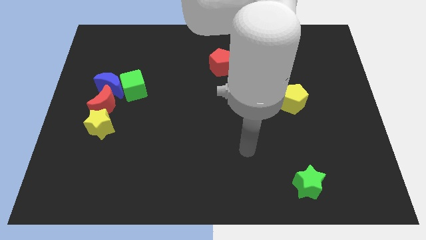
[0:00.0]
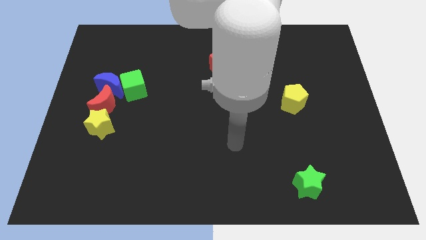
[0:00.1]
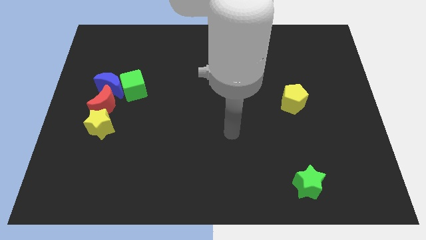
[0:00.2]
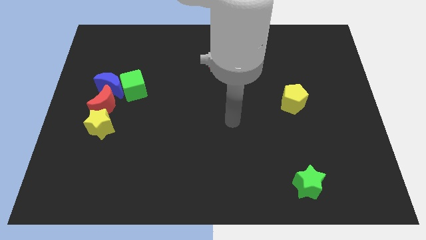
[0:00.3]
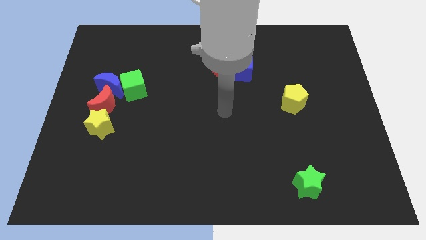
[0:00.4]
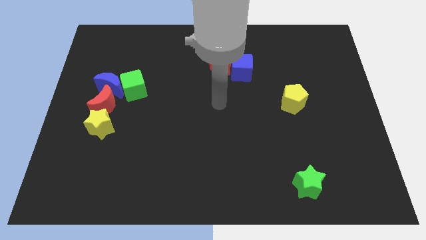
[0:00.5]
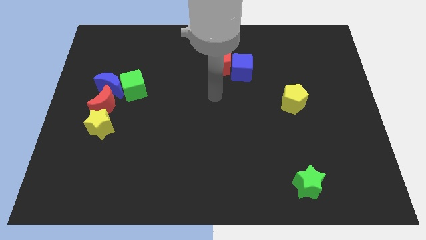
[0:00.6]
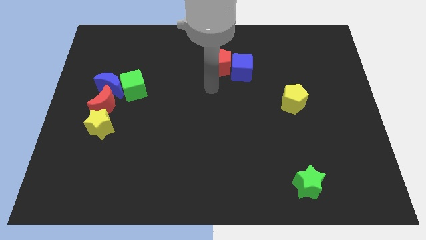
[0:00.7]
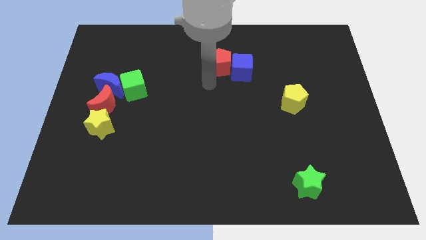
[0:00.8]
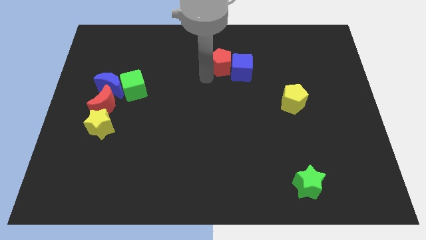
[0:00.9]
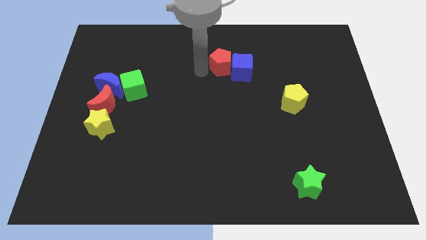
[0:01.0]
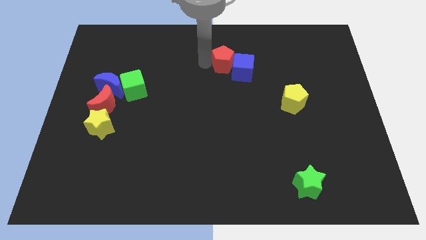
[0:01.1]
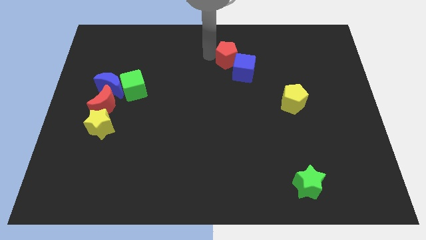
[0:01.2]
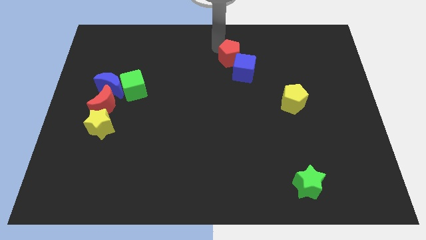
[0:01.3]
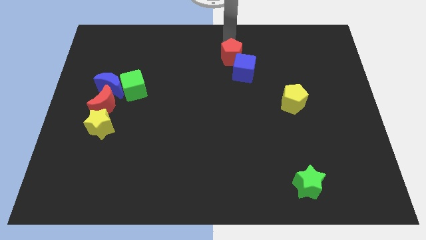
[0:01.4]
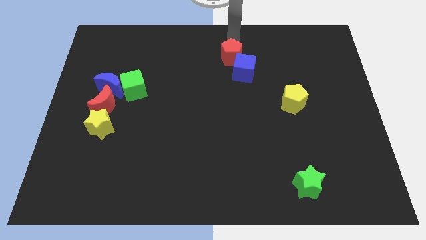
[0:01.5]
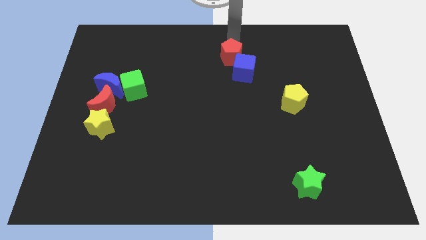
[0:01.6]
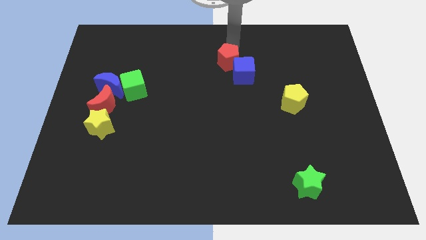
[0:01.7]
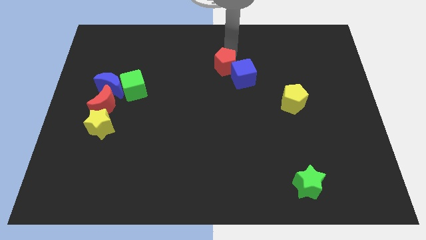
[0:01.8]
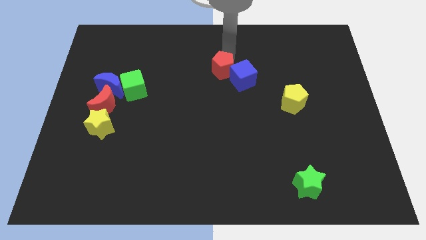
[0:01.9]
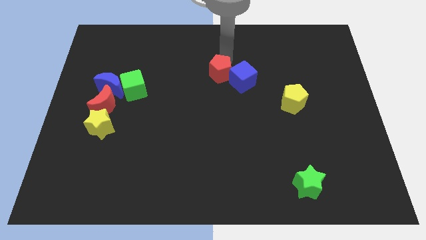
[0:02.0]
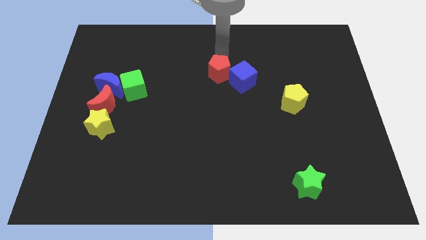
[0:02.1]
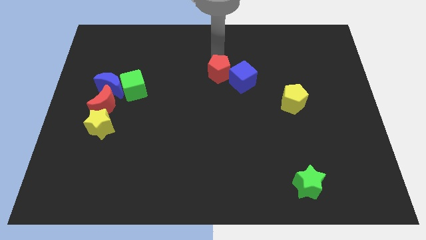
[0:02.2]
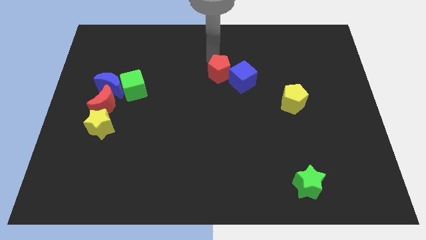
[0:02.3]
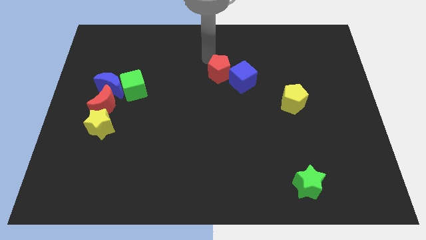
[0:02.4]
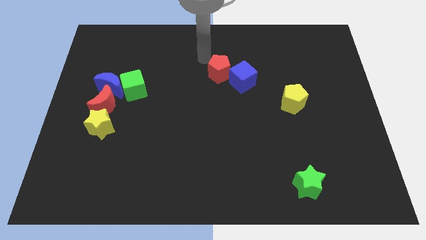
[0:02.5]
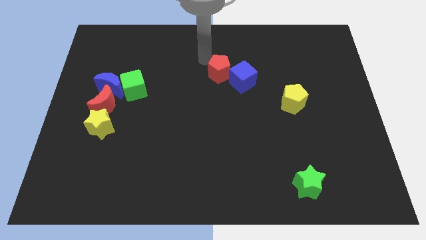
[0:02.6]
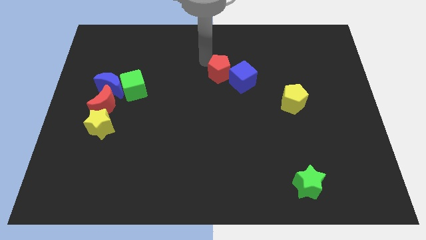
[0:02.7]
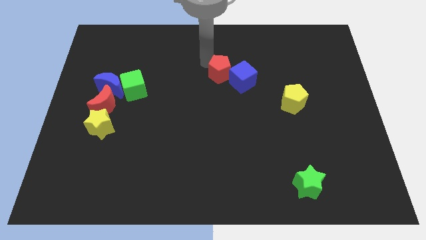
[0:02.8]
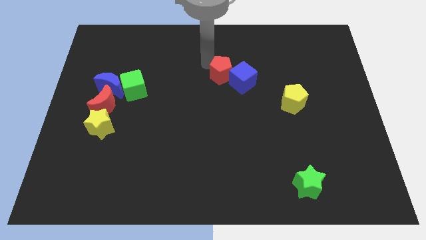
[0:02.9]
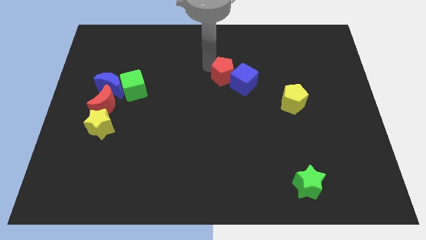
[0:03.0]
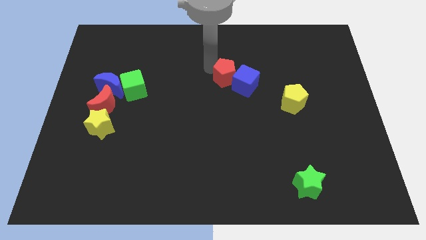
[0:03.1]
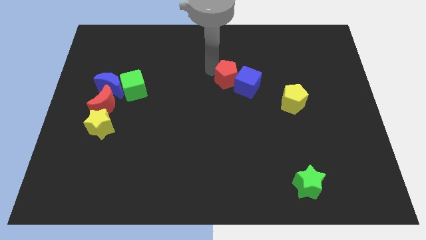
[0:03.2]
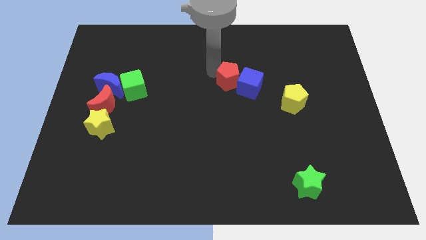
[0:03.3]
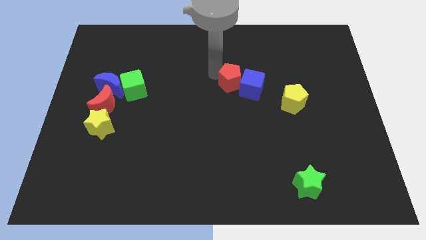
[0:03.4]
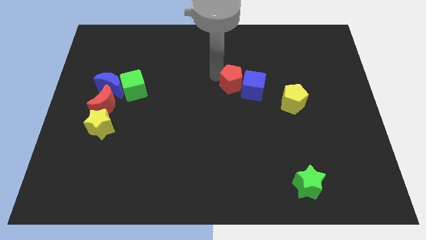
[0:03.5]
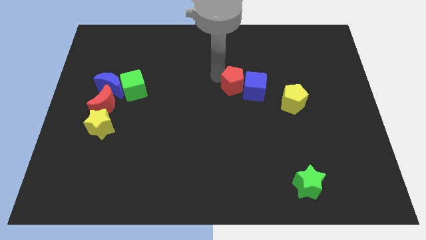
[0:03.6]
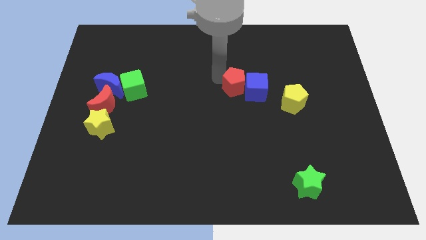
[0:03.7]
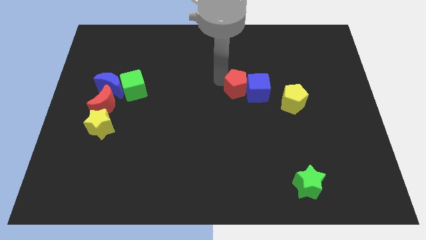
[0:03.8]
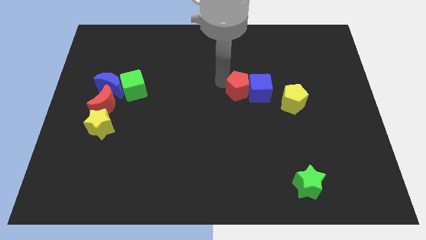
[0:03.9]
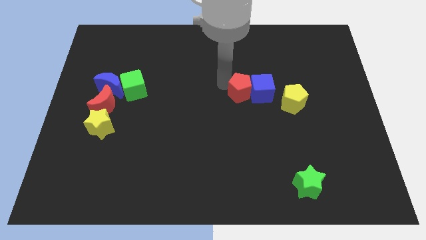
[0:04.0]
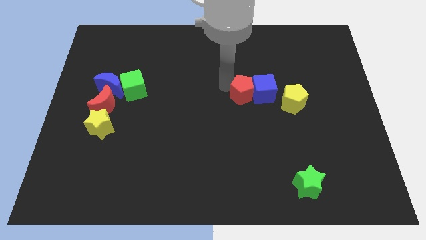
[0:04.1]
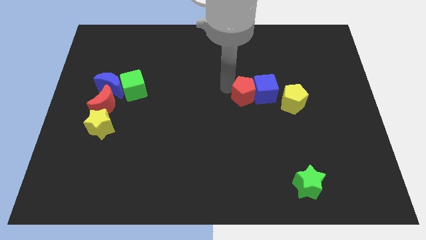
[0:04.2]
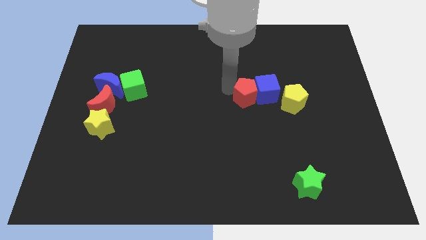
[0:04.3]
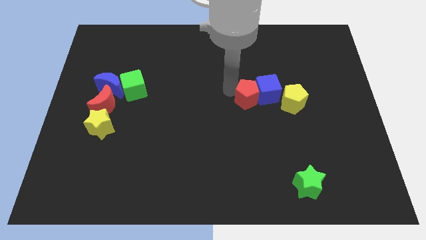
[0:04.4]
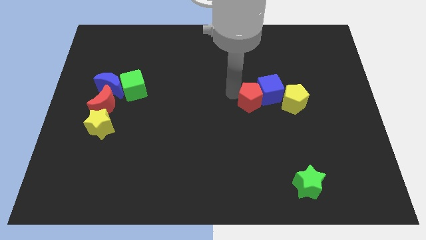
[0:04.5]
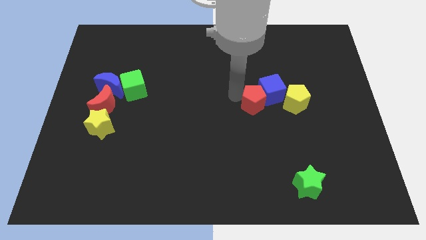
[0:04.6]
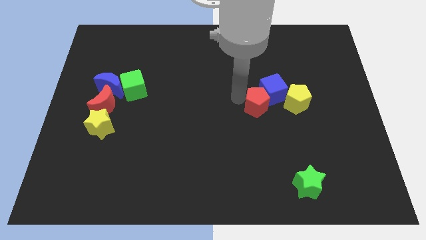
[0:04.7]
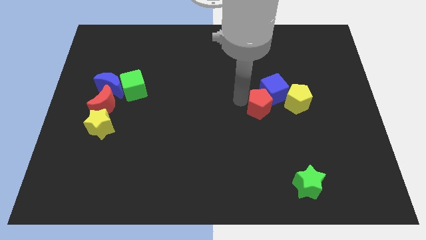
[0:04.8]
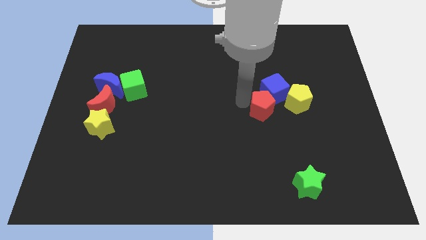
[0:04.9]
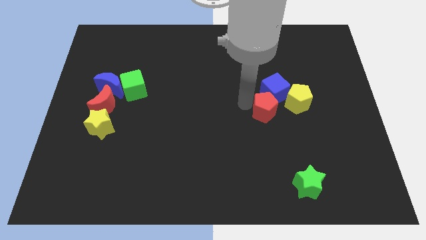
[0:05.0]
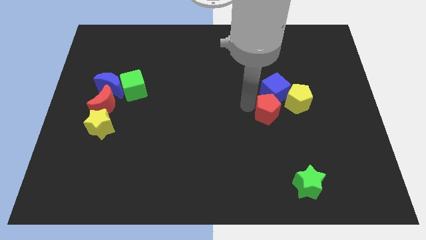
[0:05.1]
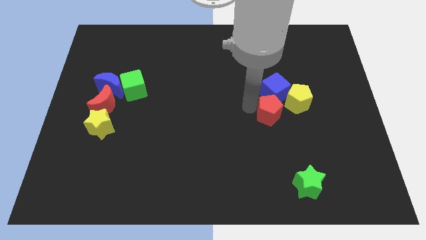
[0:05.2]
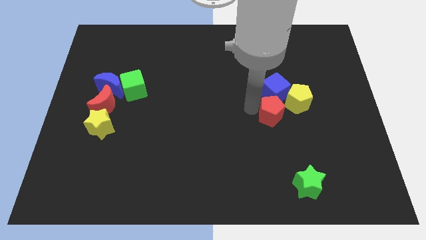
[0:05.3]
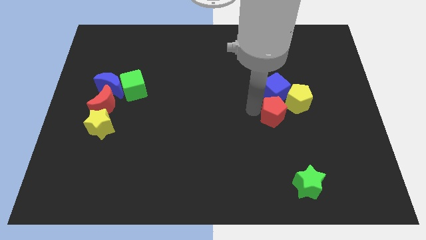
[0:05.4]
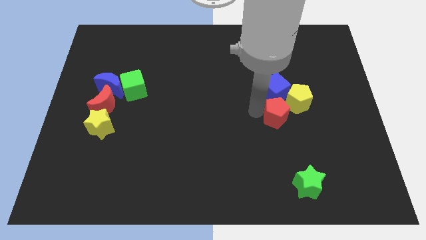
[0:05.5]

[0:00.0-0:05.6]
move the red pentagon downwards and right

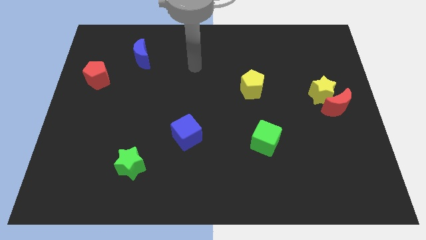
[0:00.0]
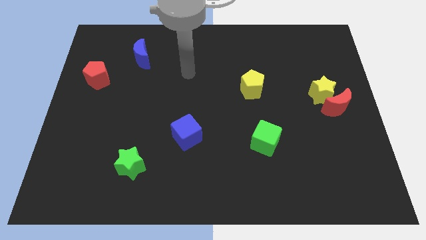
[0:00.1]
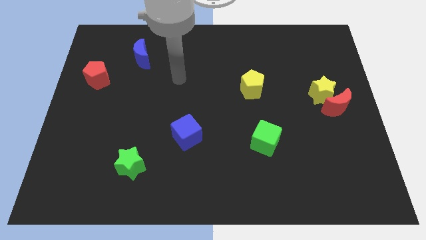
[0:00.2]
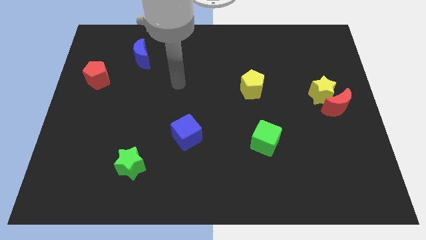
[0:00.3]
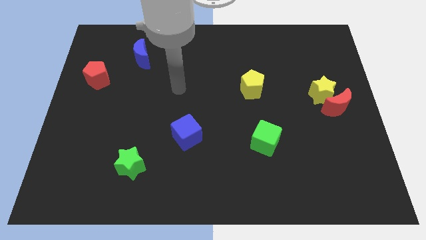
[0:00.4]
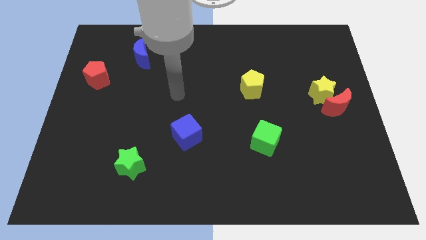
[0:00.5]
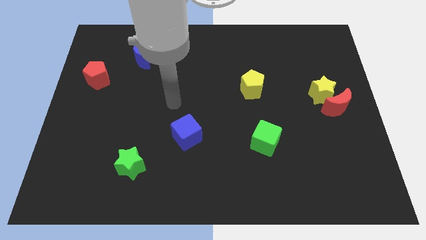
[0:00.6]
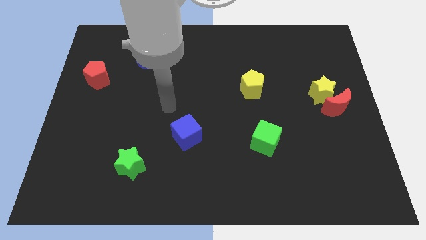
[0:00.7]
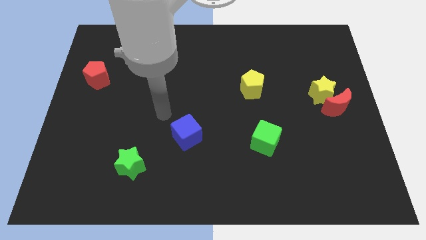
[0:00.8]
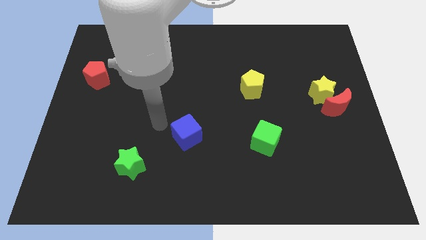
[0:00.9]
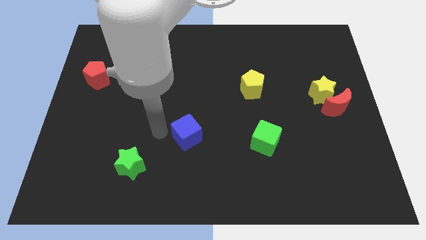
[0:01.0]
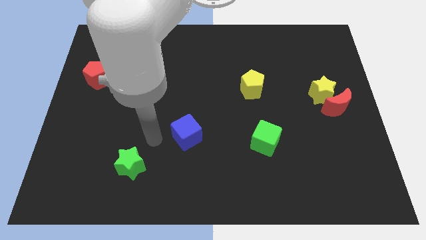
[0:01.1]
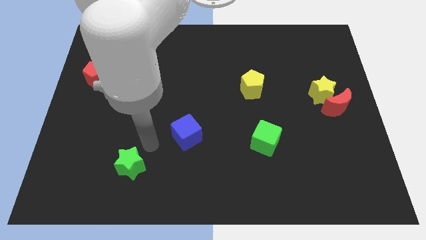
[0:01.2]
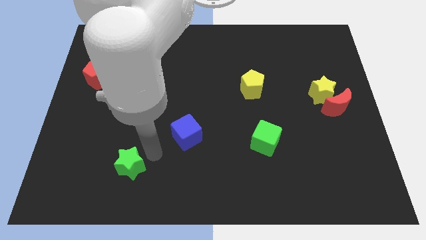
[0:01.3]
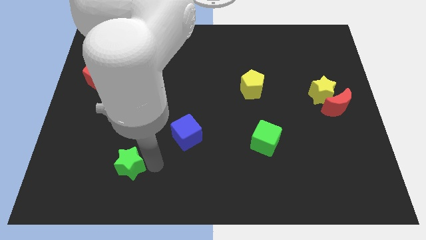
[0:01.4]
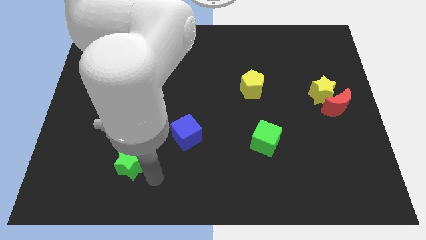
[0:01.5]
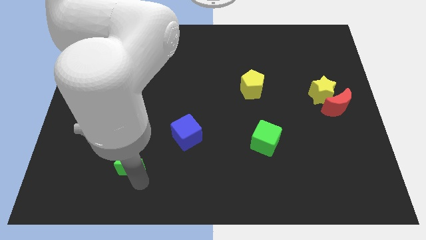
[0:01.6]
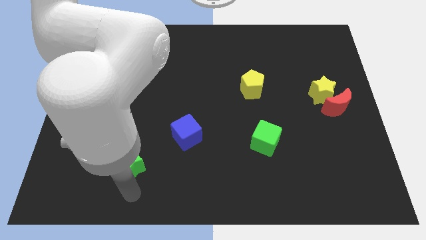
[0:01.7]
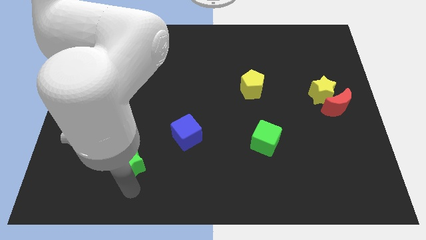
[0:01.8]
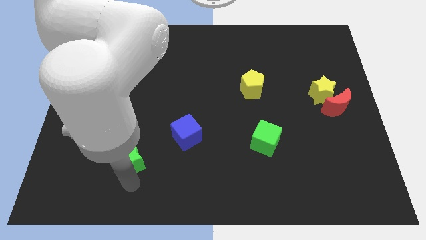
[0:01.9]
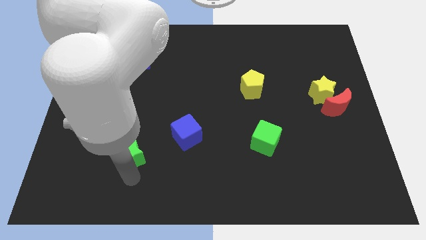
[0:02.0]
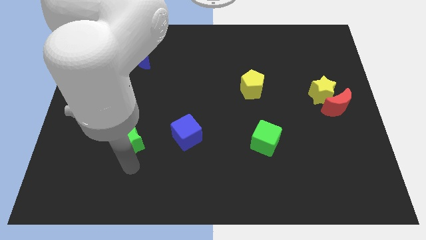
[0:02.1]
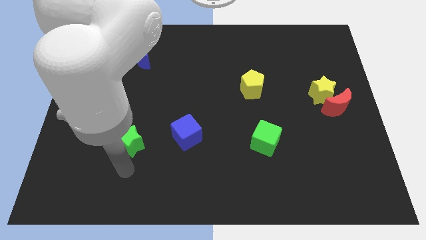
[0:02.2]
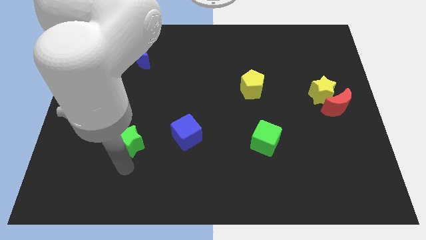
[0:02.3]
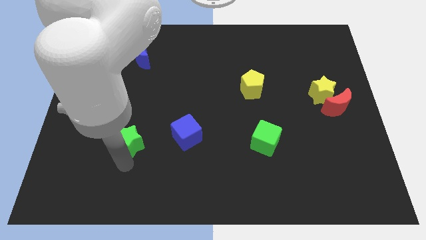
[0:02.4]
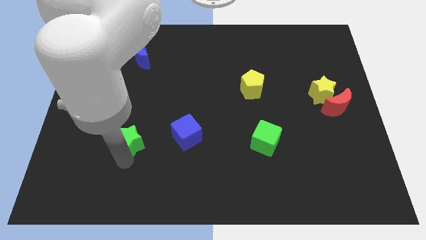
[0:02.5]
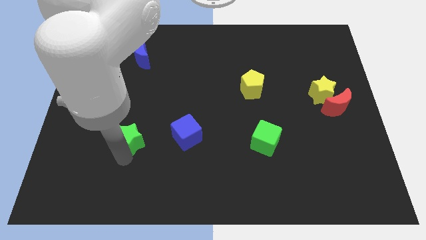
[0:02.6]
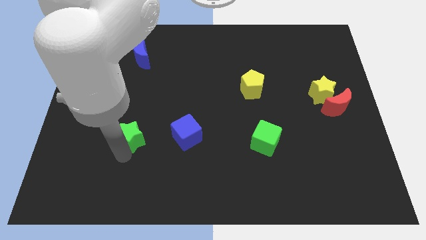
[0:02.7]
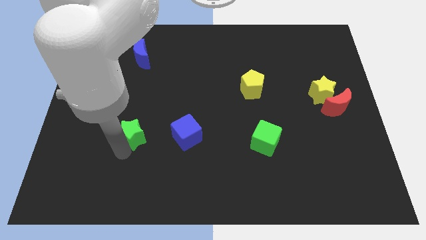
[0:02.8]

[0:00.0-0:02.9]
move the green star a bit upwards
